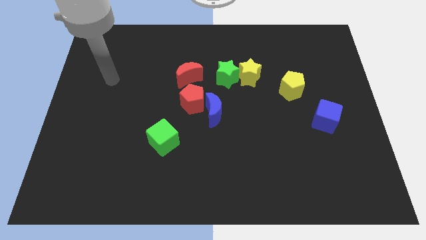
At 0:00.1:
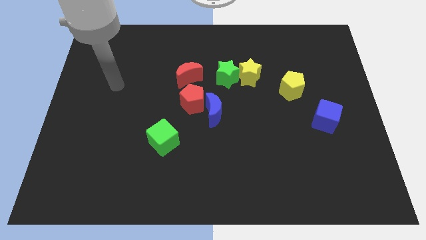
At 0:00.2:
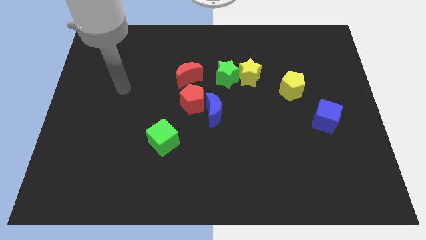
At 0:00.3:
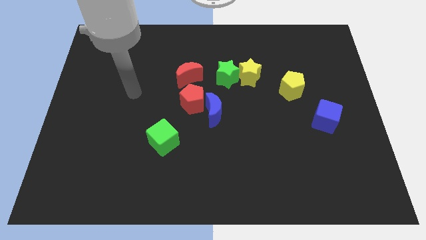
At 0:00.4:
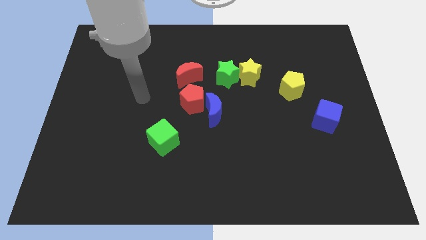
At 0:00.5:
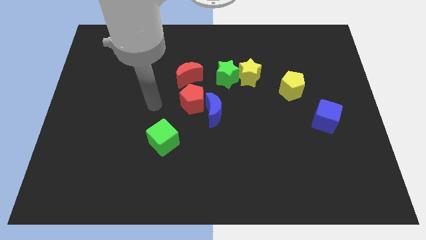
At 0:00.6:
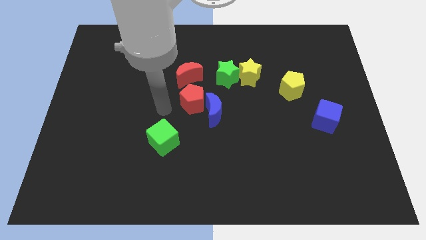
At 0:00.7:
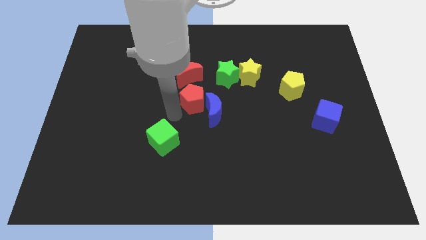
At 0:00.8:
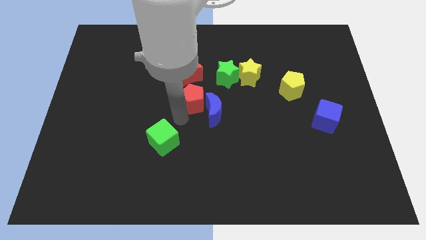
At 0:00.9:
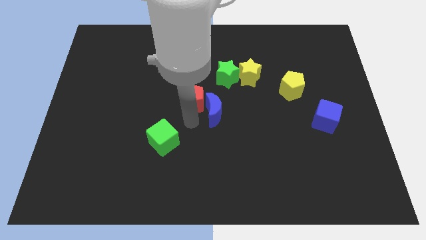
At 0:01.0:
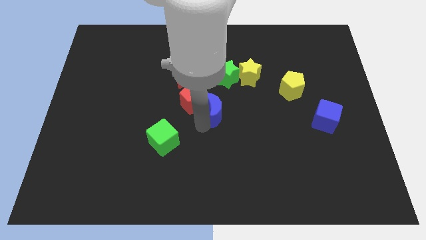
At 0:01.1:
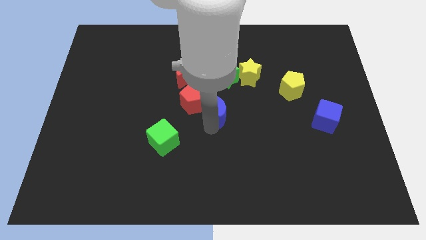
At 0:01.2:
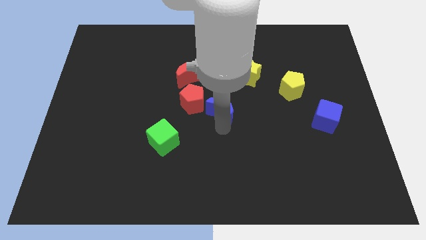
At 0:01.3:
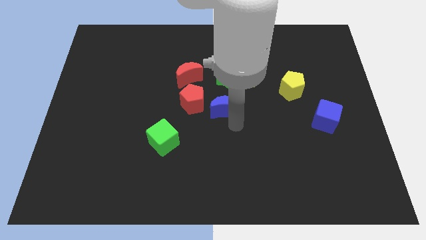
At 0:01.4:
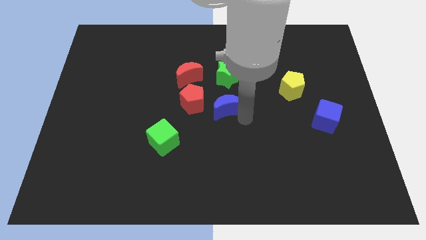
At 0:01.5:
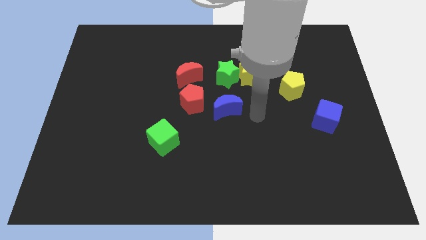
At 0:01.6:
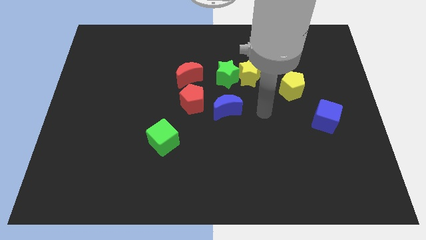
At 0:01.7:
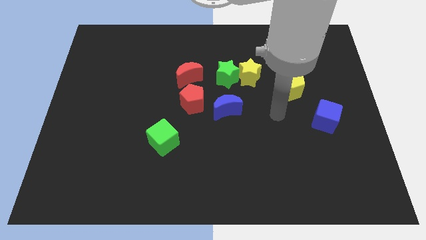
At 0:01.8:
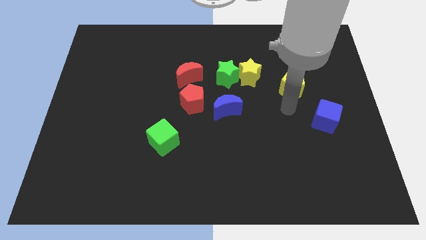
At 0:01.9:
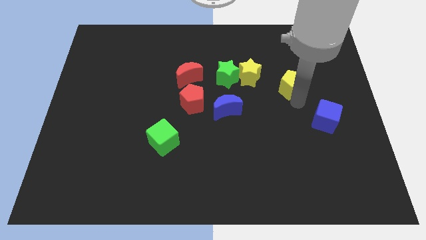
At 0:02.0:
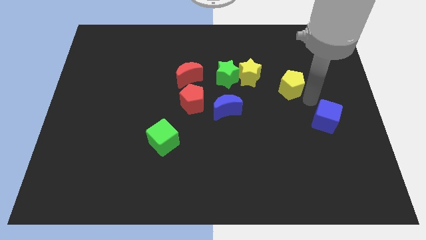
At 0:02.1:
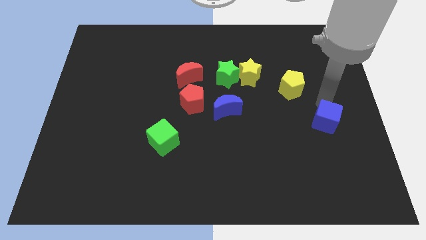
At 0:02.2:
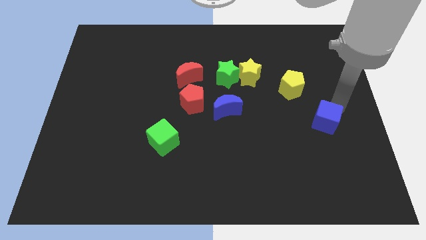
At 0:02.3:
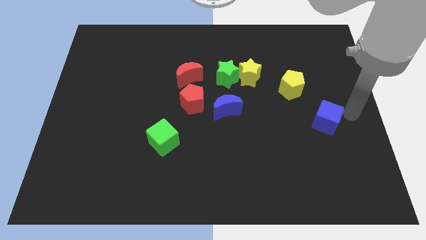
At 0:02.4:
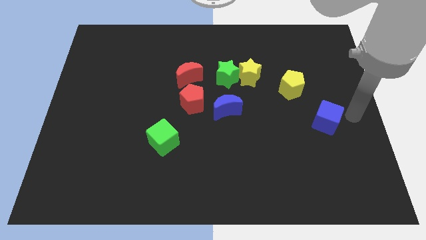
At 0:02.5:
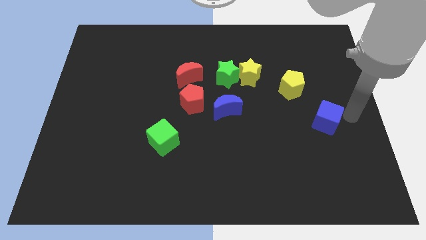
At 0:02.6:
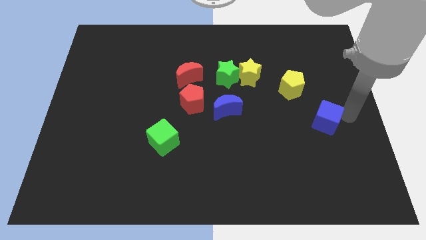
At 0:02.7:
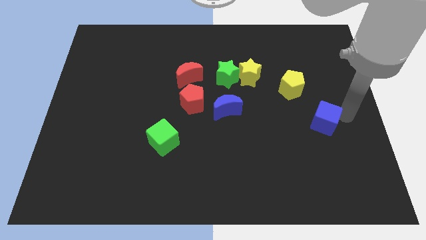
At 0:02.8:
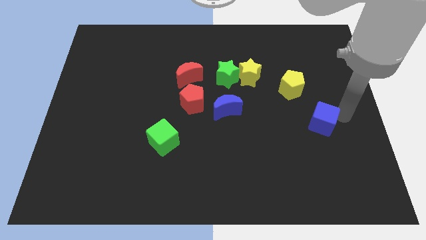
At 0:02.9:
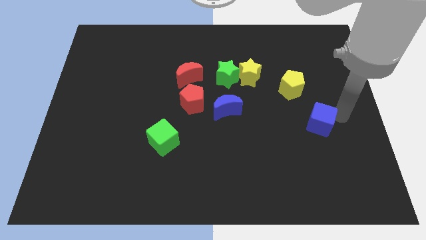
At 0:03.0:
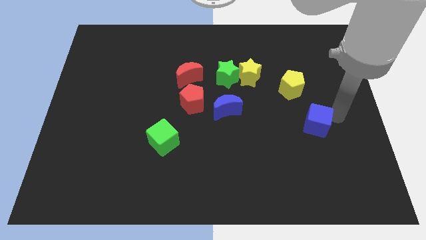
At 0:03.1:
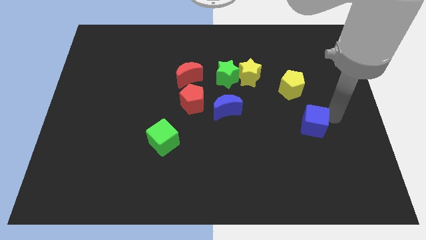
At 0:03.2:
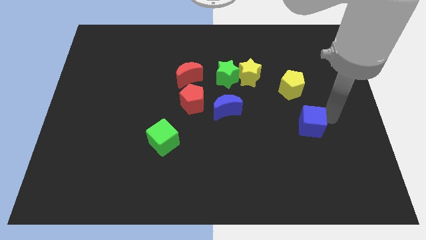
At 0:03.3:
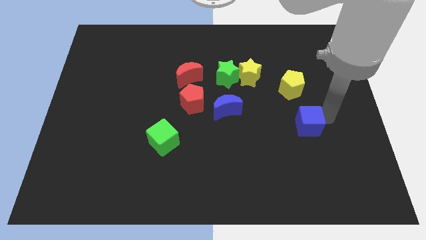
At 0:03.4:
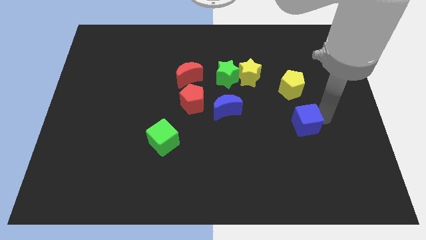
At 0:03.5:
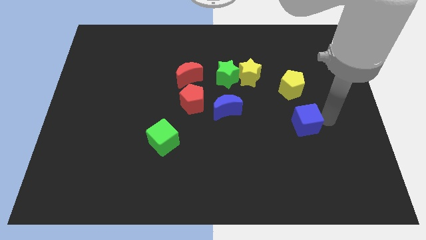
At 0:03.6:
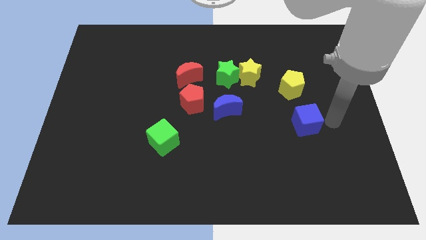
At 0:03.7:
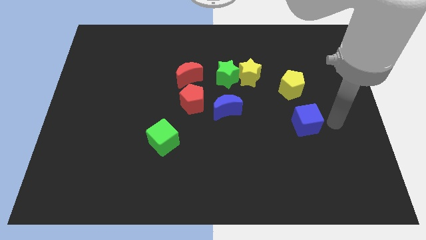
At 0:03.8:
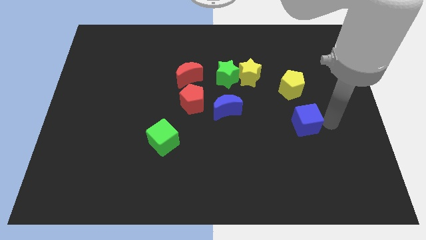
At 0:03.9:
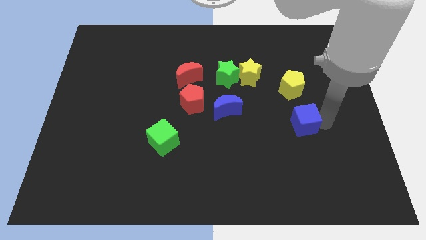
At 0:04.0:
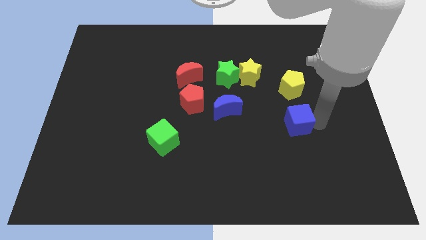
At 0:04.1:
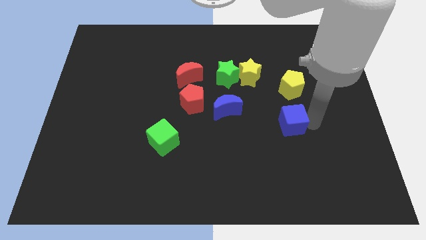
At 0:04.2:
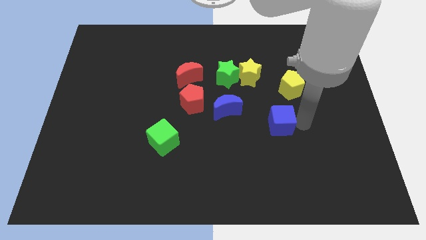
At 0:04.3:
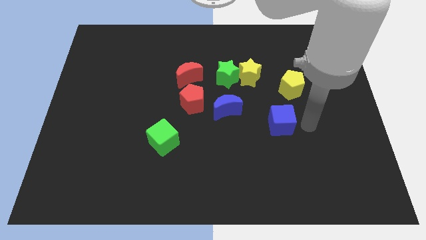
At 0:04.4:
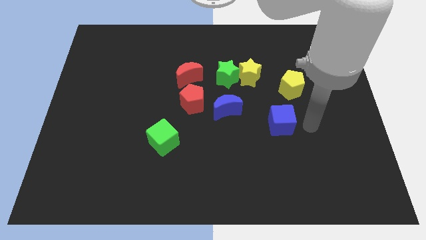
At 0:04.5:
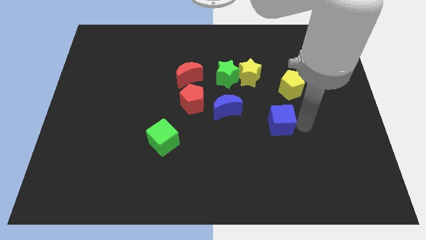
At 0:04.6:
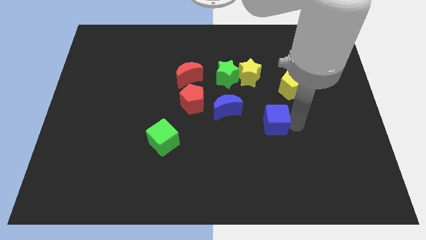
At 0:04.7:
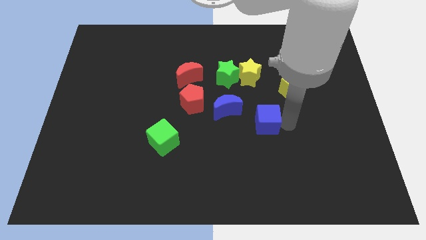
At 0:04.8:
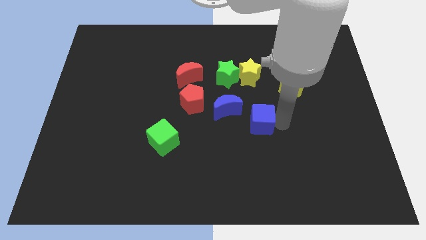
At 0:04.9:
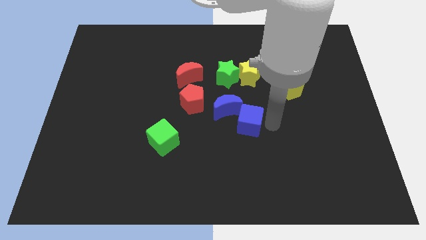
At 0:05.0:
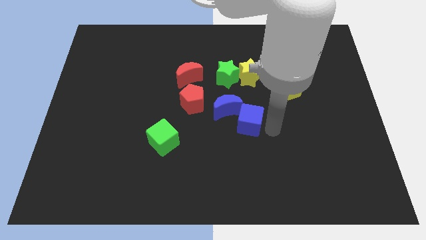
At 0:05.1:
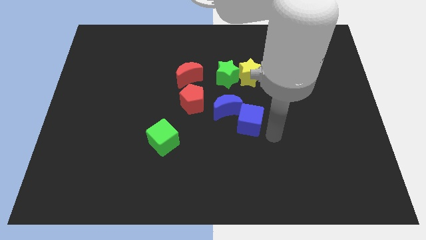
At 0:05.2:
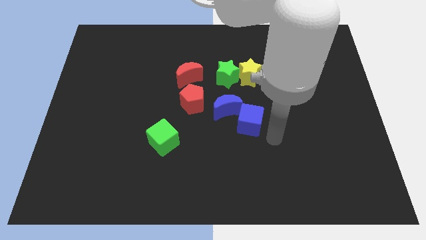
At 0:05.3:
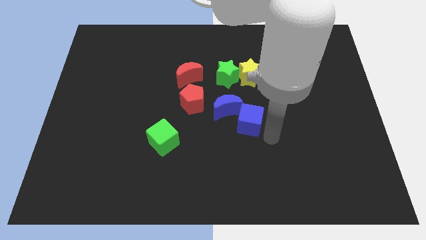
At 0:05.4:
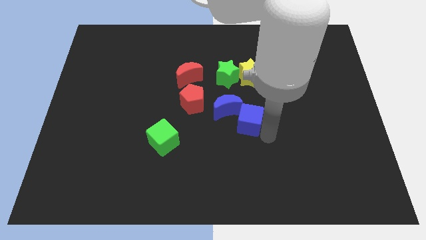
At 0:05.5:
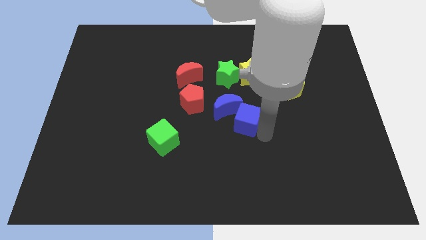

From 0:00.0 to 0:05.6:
push the blue cube to the bottom side of the green star

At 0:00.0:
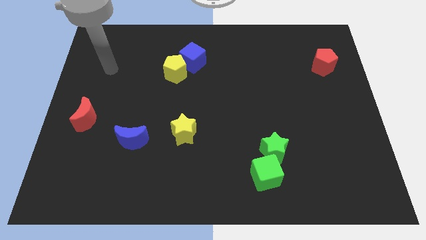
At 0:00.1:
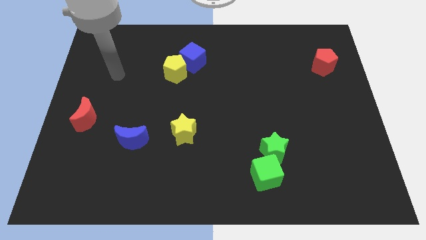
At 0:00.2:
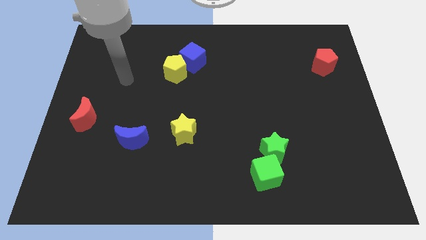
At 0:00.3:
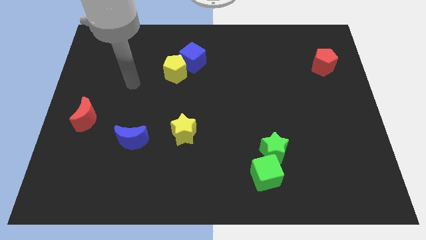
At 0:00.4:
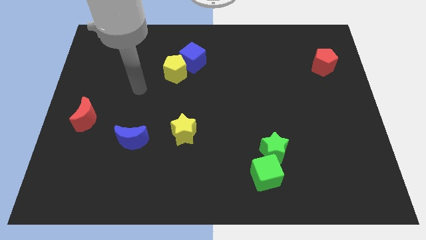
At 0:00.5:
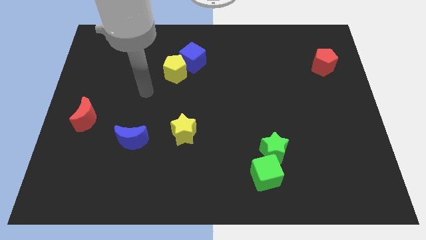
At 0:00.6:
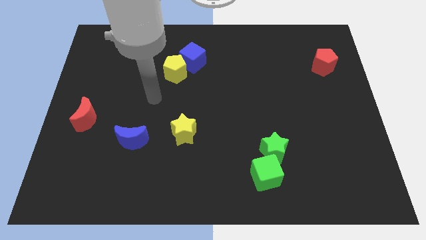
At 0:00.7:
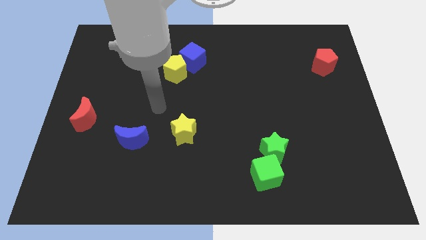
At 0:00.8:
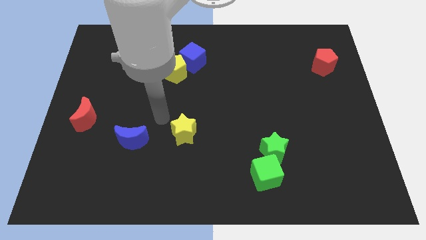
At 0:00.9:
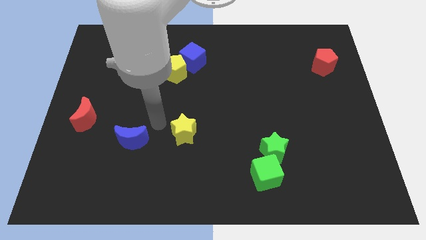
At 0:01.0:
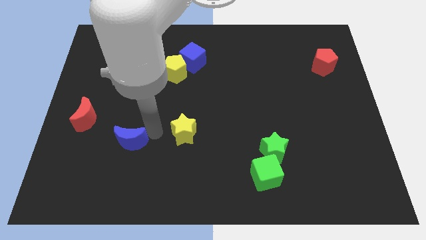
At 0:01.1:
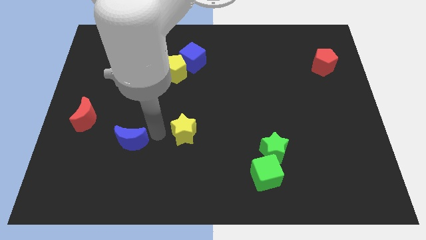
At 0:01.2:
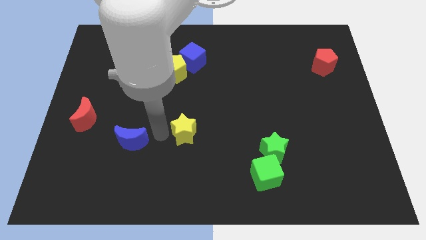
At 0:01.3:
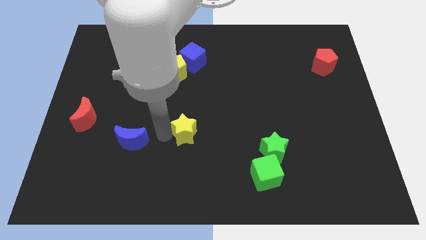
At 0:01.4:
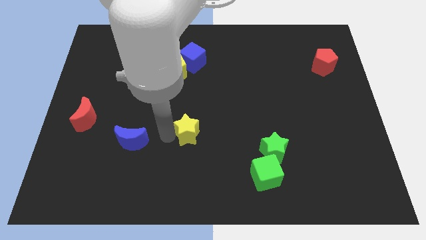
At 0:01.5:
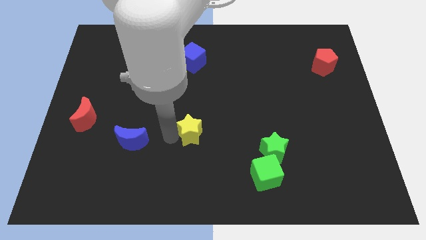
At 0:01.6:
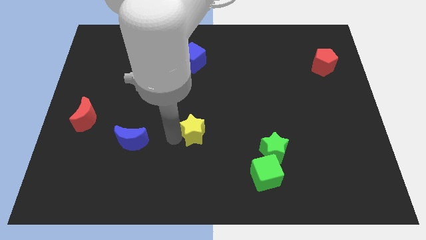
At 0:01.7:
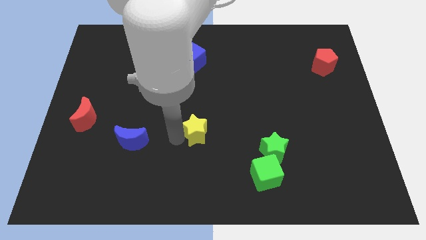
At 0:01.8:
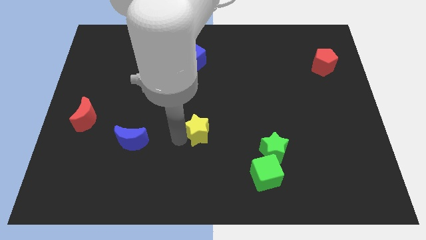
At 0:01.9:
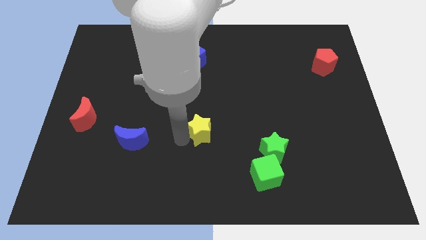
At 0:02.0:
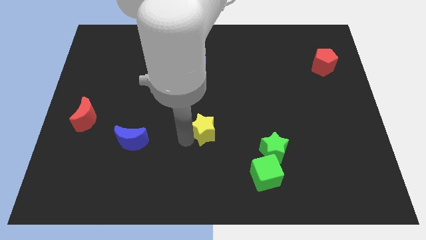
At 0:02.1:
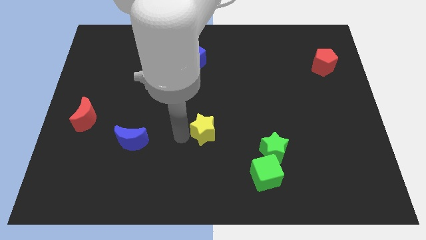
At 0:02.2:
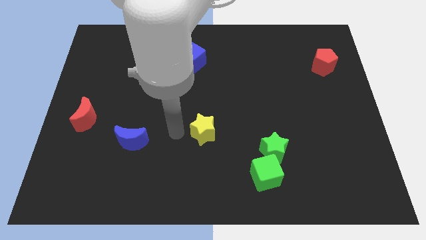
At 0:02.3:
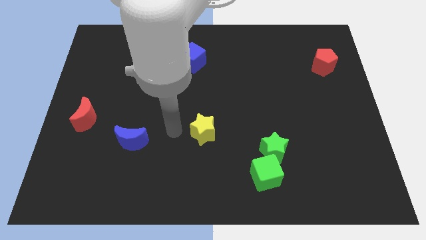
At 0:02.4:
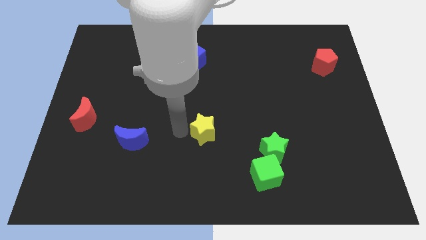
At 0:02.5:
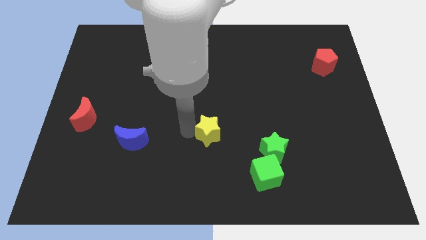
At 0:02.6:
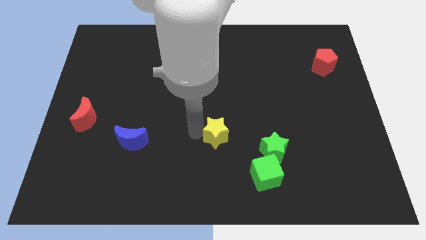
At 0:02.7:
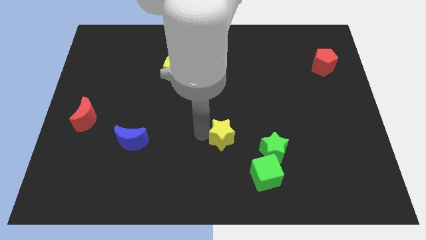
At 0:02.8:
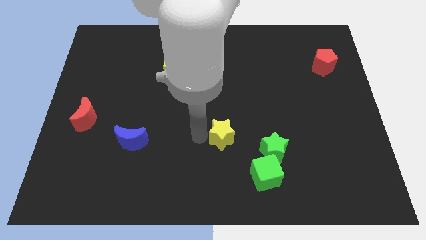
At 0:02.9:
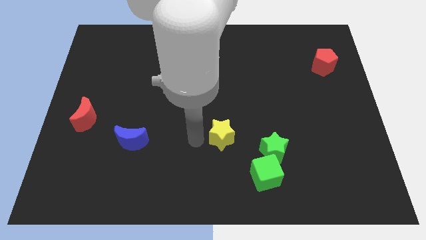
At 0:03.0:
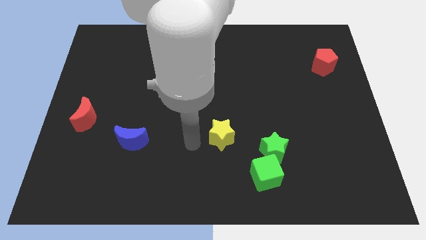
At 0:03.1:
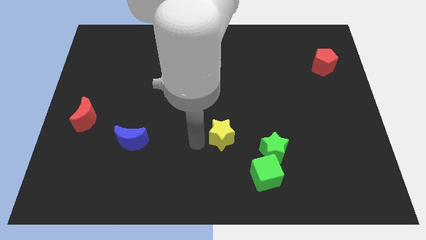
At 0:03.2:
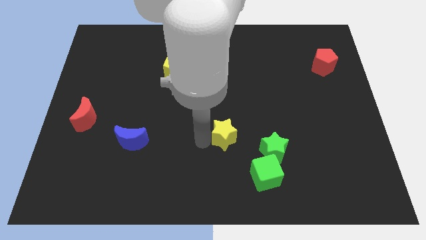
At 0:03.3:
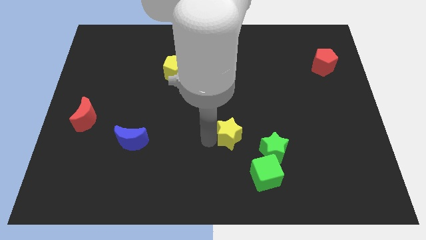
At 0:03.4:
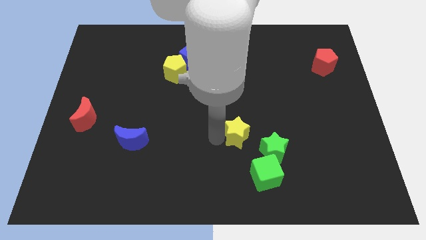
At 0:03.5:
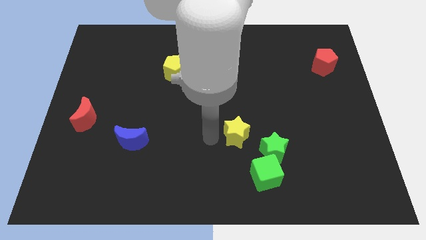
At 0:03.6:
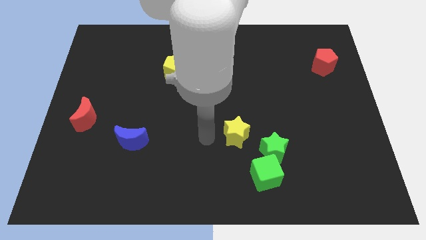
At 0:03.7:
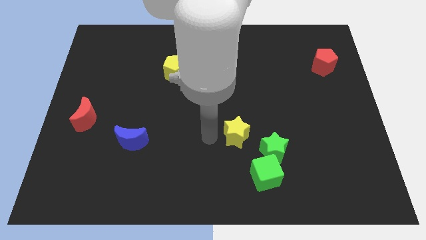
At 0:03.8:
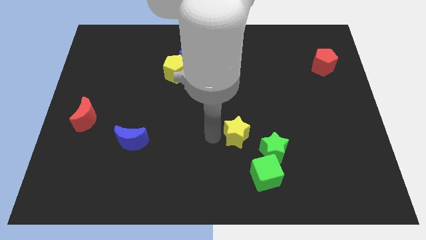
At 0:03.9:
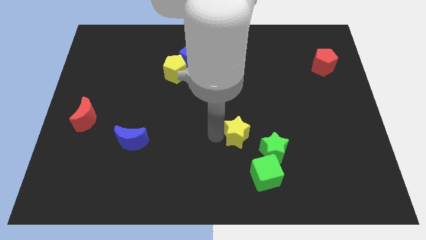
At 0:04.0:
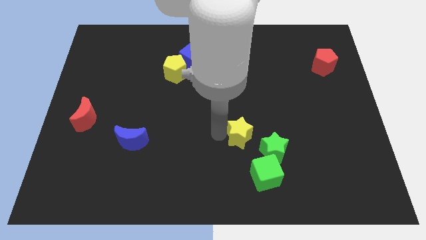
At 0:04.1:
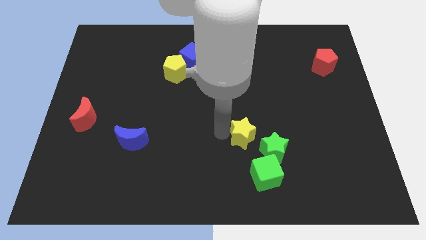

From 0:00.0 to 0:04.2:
push the yellow star to the top side of the green cube
